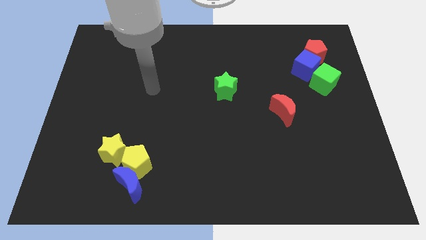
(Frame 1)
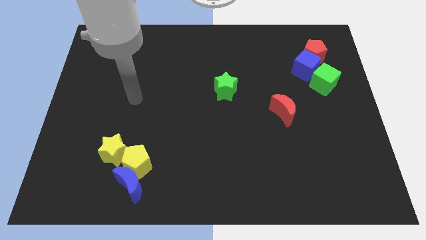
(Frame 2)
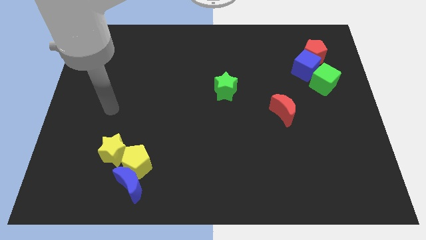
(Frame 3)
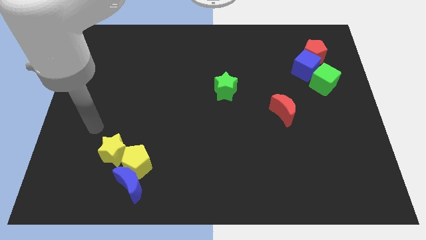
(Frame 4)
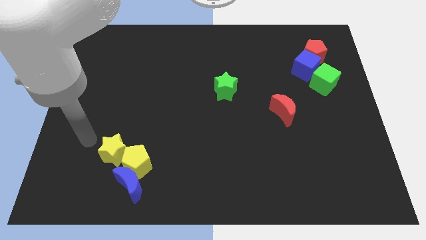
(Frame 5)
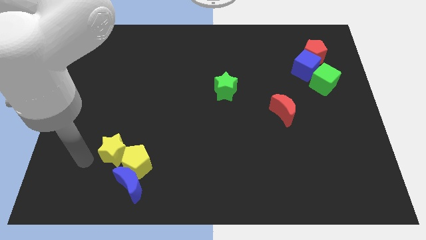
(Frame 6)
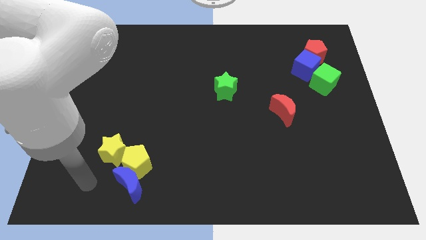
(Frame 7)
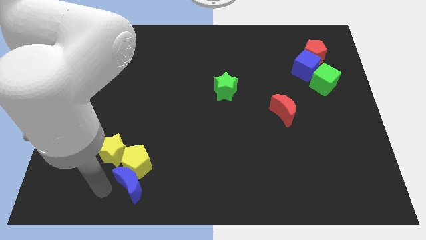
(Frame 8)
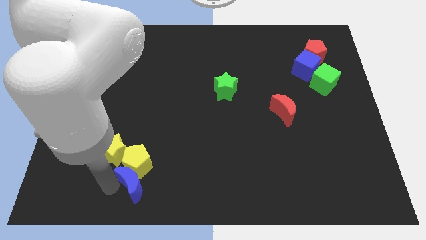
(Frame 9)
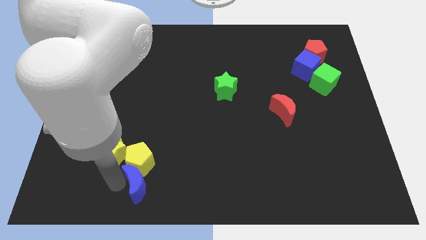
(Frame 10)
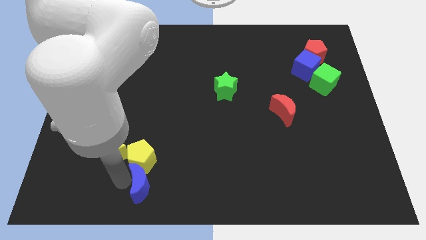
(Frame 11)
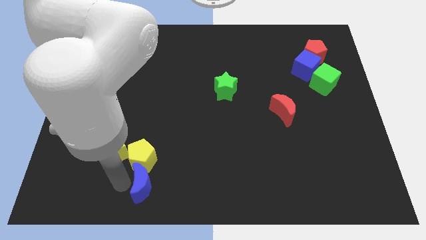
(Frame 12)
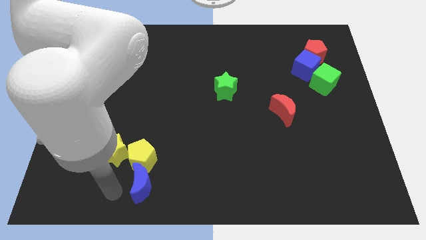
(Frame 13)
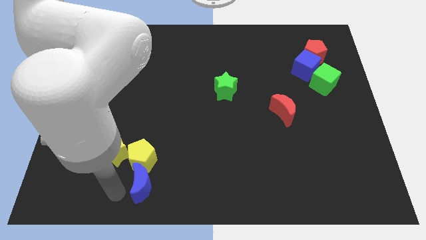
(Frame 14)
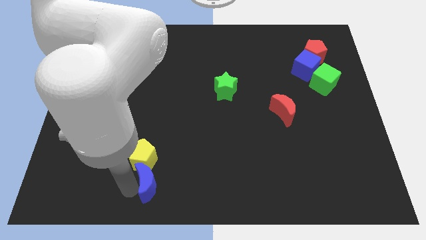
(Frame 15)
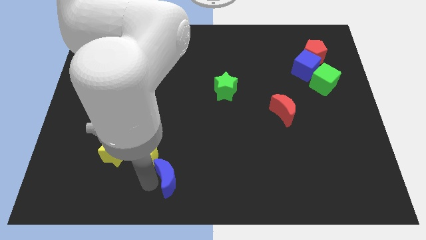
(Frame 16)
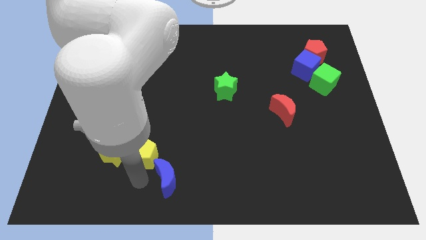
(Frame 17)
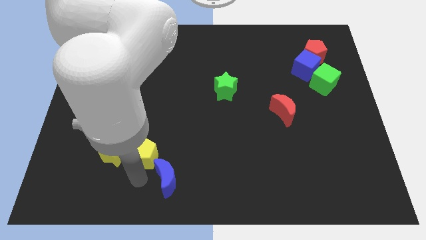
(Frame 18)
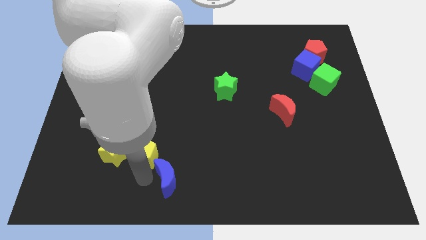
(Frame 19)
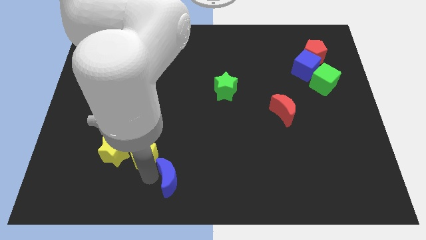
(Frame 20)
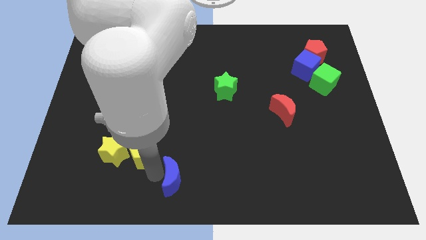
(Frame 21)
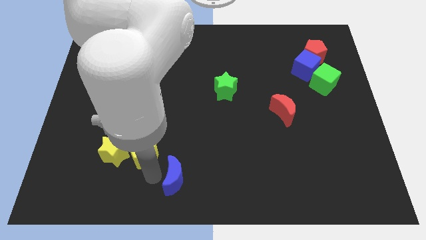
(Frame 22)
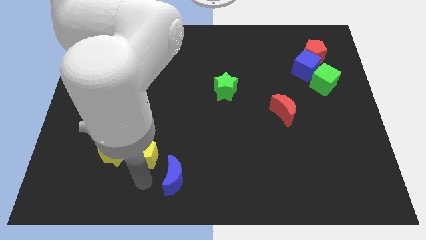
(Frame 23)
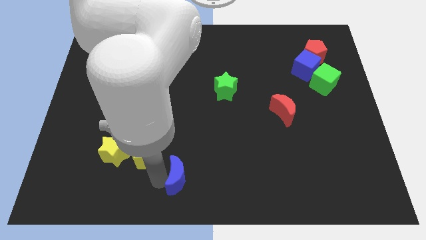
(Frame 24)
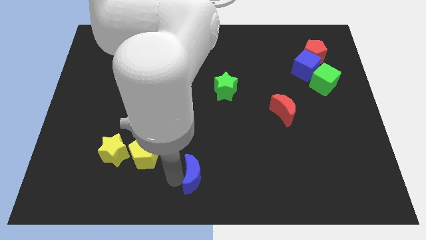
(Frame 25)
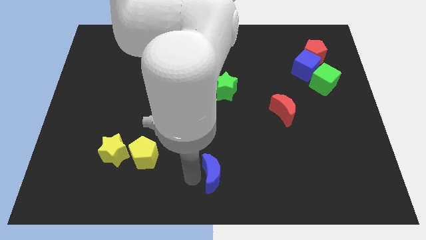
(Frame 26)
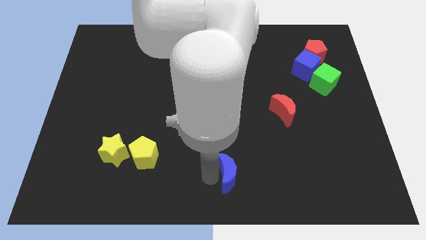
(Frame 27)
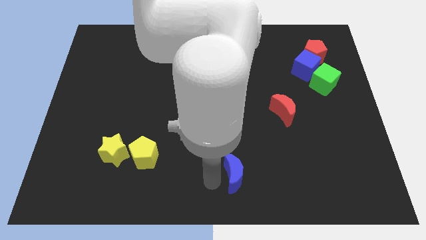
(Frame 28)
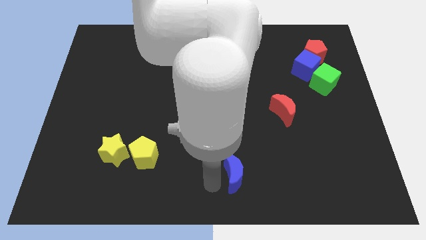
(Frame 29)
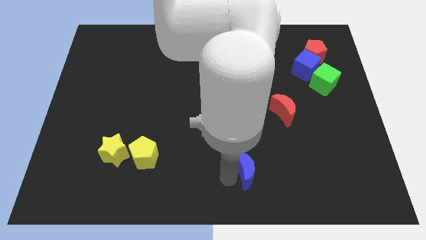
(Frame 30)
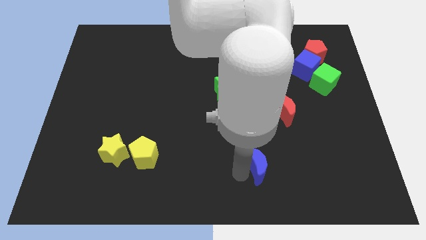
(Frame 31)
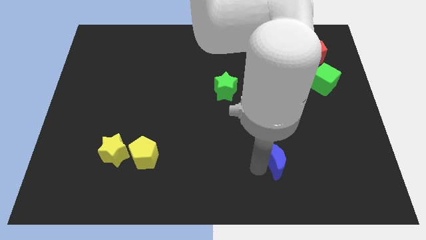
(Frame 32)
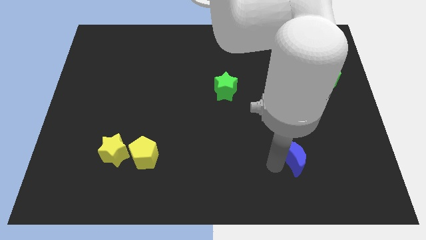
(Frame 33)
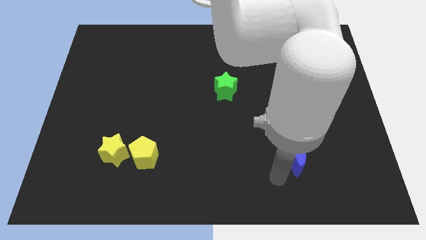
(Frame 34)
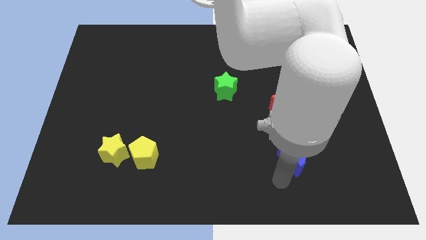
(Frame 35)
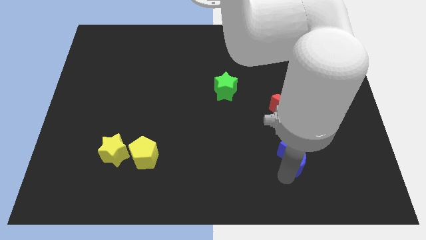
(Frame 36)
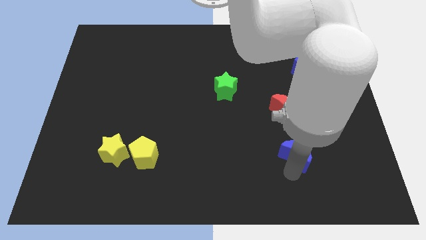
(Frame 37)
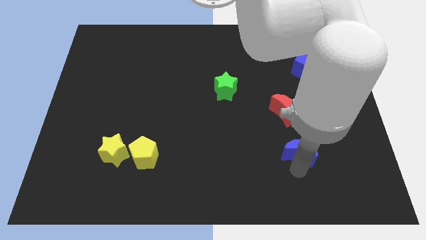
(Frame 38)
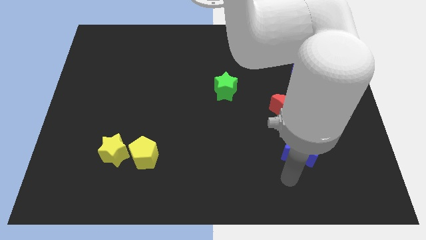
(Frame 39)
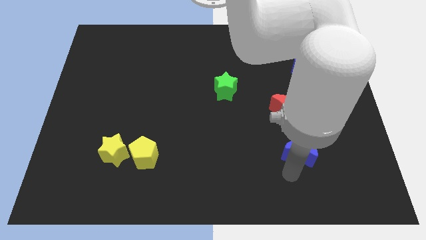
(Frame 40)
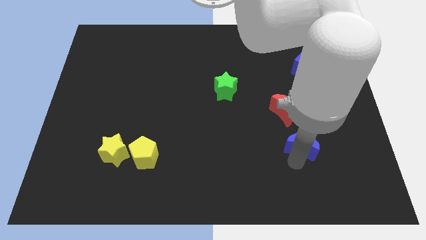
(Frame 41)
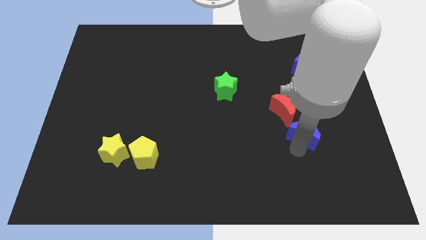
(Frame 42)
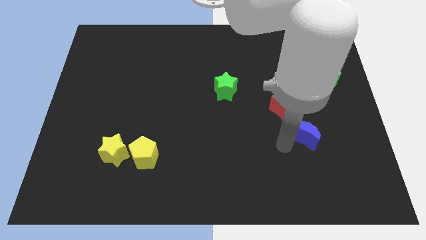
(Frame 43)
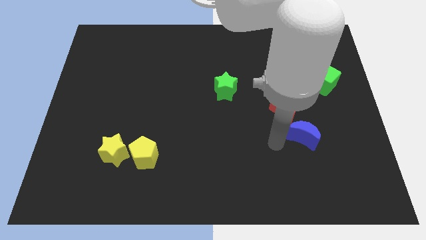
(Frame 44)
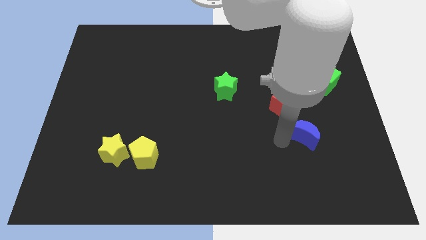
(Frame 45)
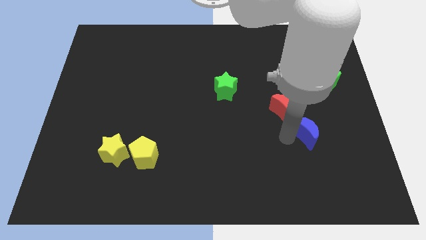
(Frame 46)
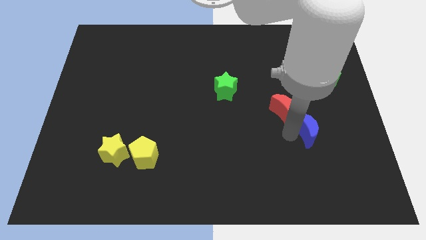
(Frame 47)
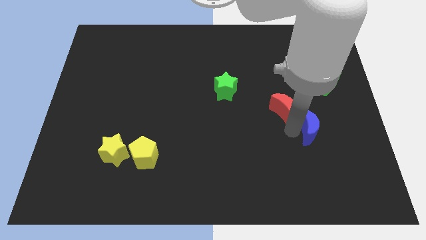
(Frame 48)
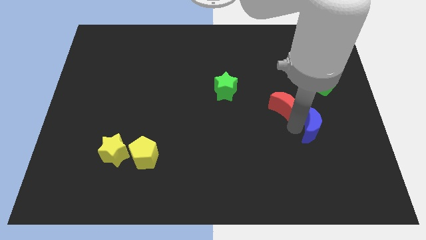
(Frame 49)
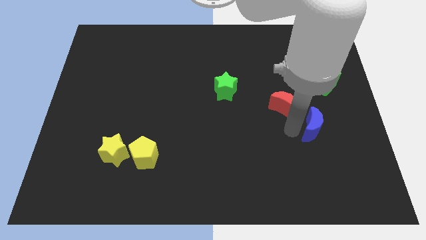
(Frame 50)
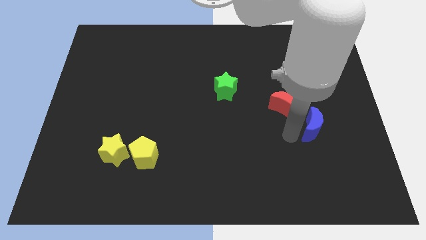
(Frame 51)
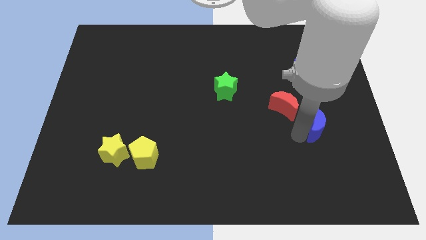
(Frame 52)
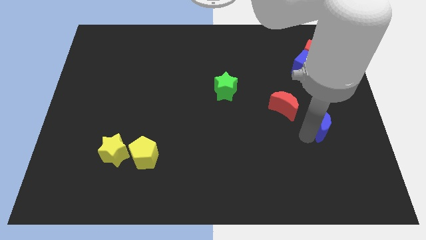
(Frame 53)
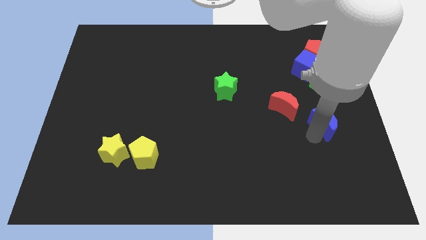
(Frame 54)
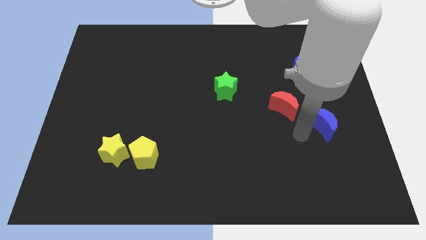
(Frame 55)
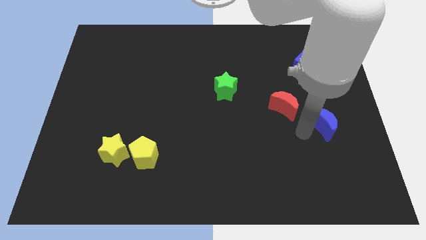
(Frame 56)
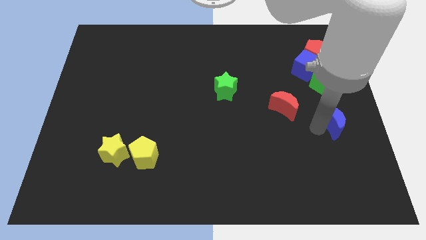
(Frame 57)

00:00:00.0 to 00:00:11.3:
move the blue moon to the right side
